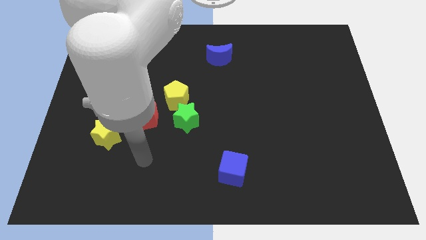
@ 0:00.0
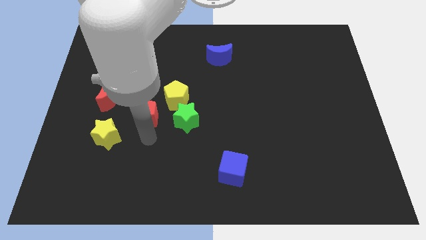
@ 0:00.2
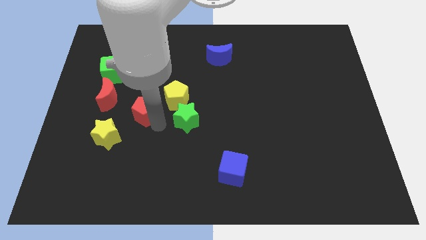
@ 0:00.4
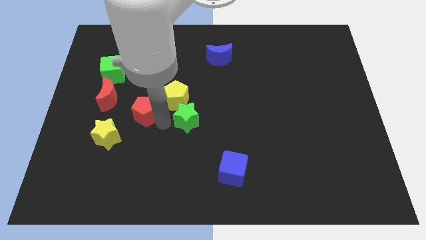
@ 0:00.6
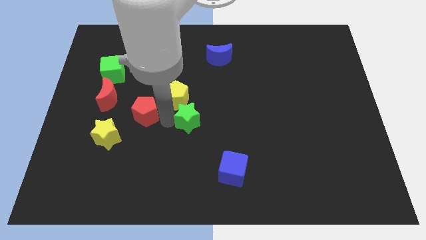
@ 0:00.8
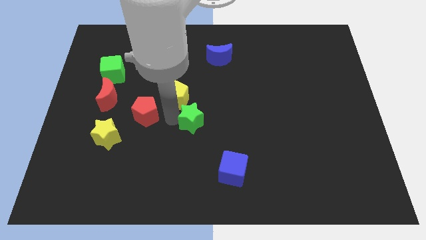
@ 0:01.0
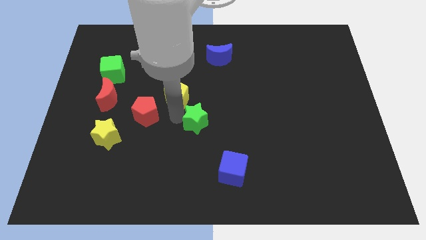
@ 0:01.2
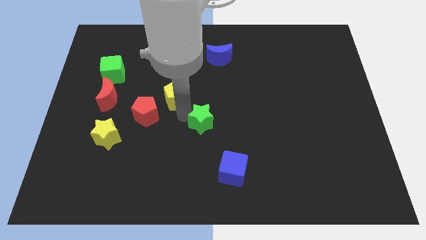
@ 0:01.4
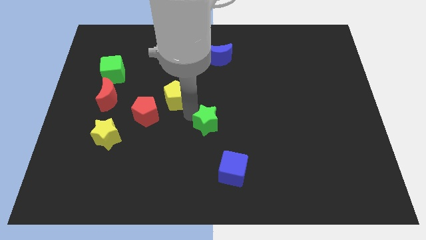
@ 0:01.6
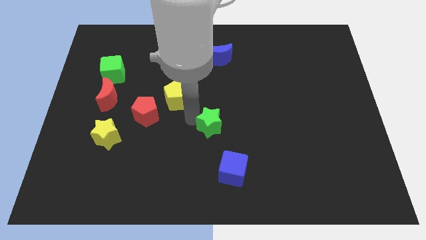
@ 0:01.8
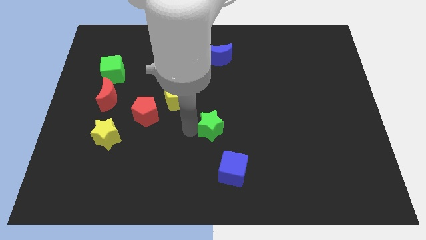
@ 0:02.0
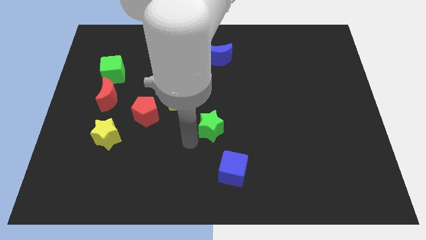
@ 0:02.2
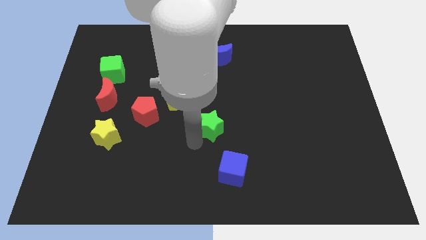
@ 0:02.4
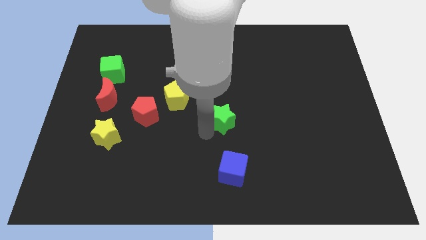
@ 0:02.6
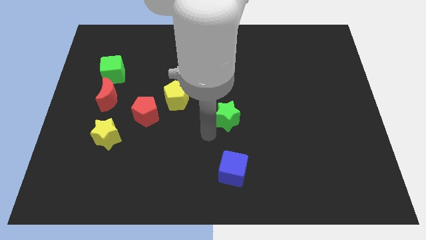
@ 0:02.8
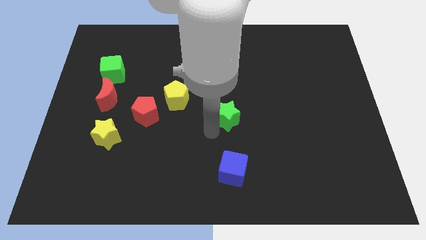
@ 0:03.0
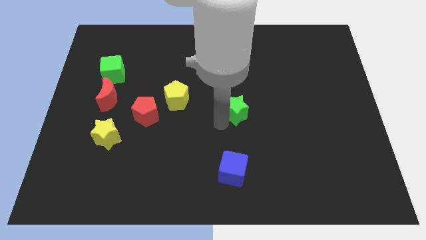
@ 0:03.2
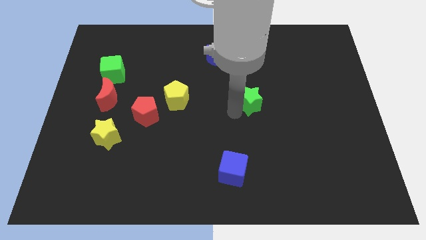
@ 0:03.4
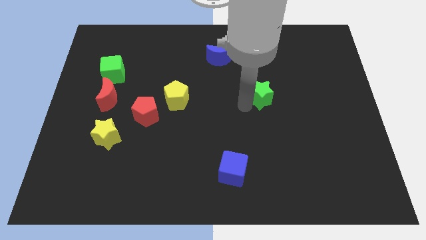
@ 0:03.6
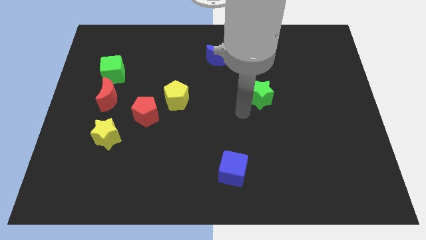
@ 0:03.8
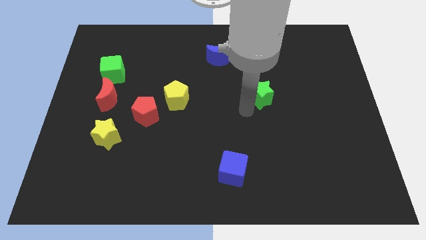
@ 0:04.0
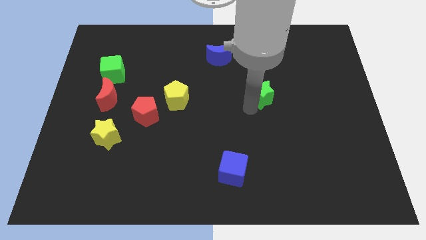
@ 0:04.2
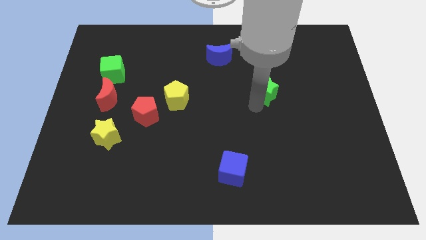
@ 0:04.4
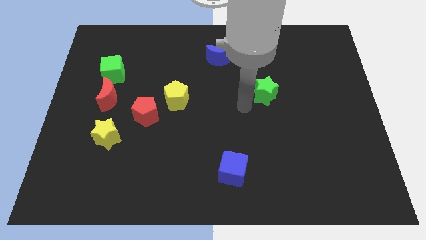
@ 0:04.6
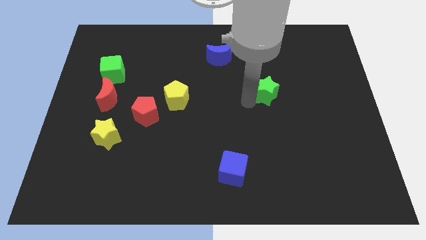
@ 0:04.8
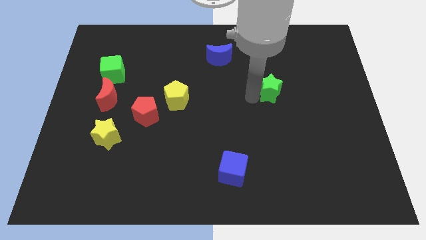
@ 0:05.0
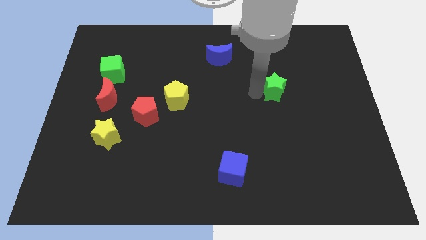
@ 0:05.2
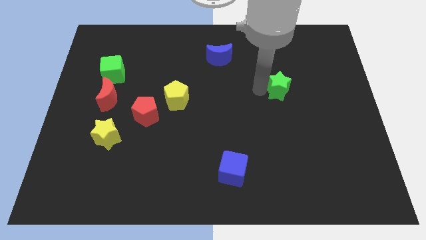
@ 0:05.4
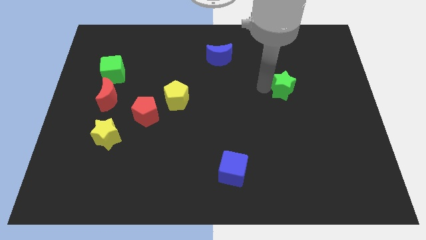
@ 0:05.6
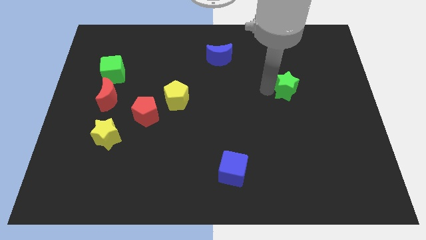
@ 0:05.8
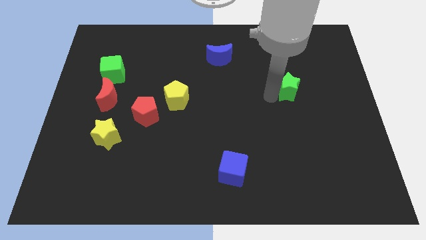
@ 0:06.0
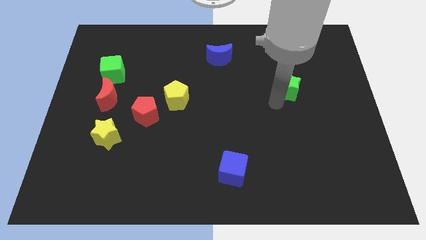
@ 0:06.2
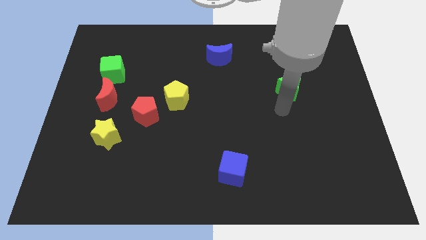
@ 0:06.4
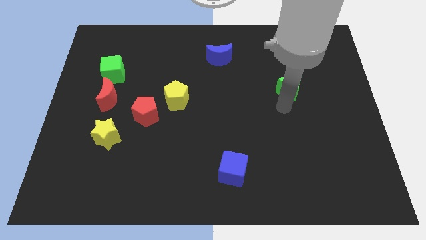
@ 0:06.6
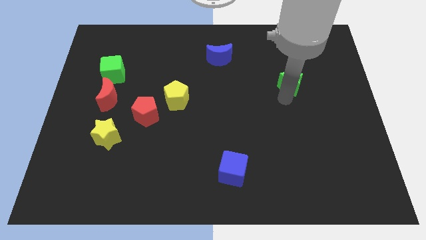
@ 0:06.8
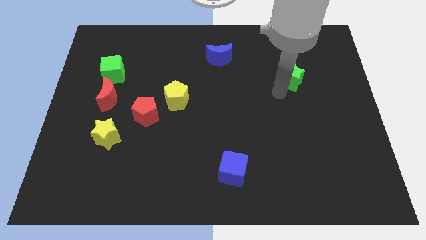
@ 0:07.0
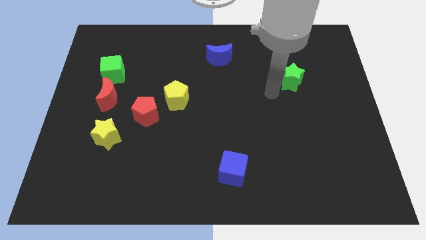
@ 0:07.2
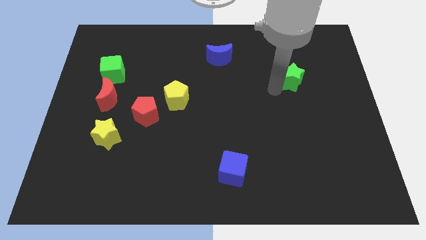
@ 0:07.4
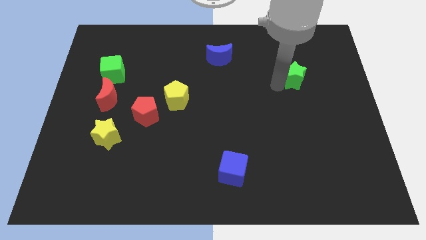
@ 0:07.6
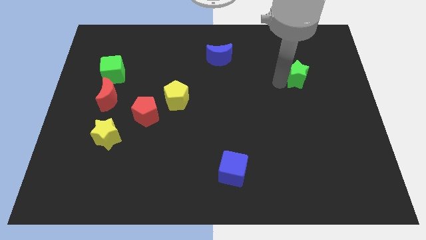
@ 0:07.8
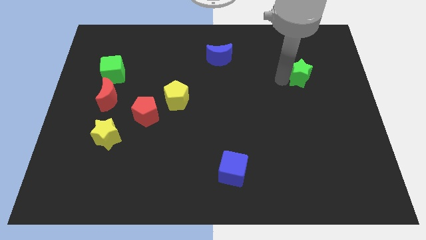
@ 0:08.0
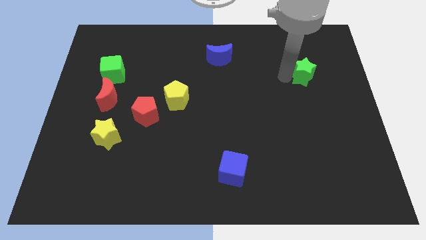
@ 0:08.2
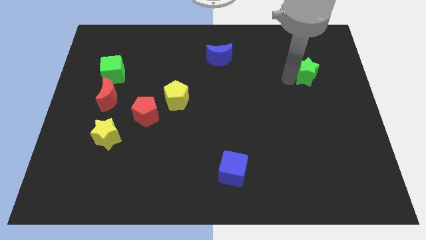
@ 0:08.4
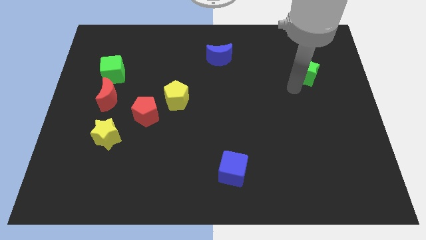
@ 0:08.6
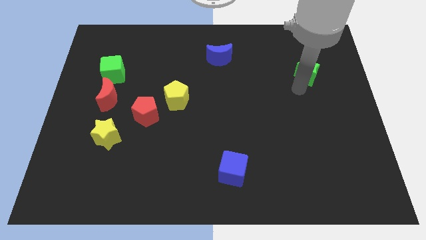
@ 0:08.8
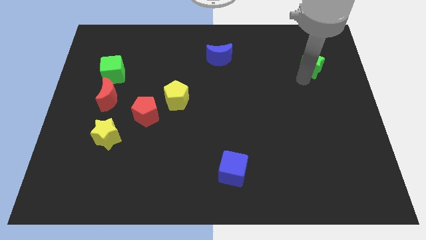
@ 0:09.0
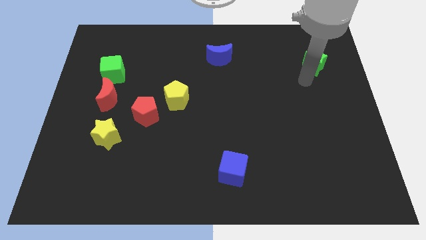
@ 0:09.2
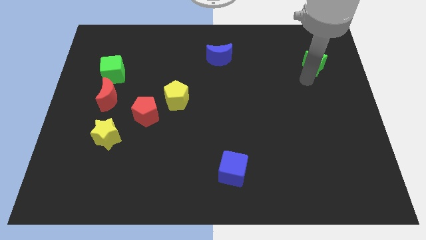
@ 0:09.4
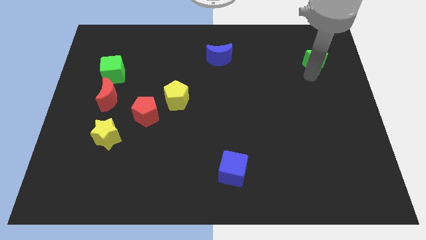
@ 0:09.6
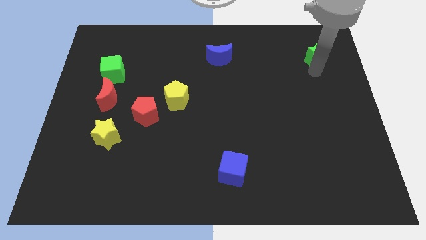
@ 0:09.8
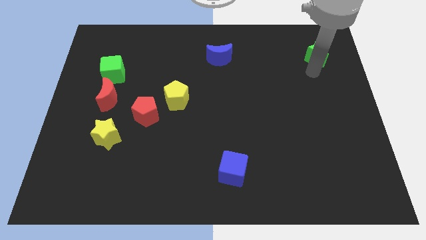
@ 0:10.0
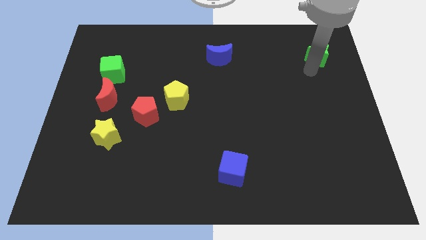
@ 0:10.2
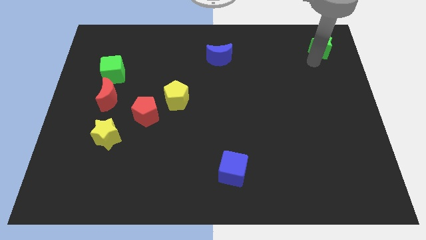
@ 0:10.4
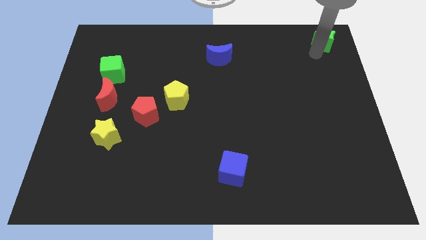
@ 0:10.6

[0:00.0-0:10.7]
put the green star to the top right

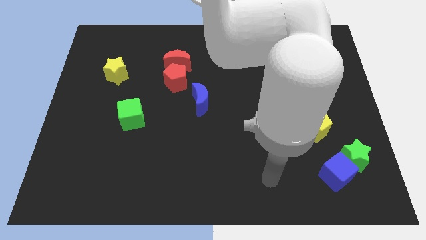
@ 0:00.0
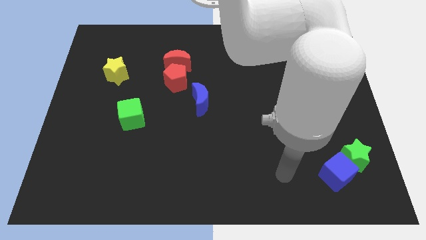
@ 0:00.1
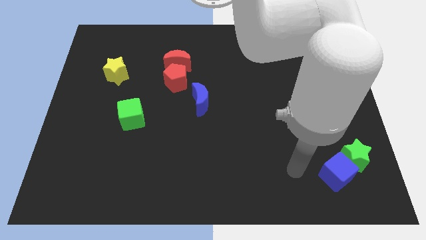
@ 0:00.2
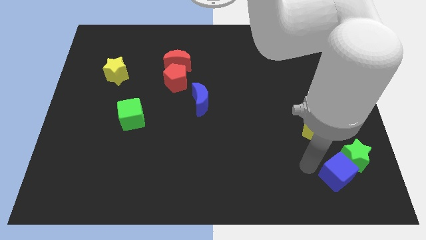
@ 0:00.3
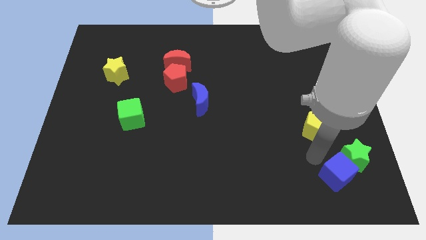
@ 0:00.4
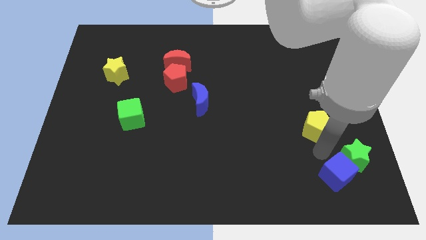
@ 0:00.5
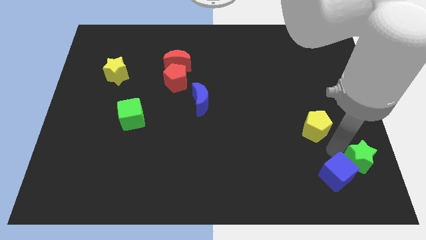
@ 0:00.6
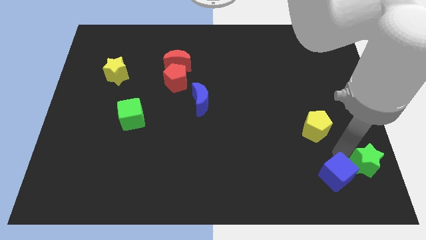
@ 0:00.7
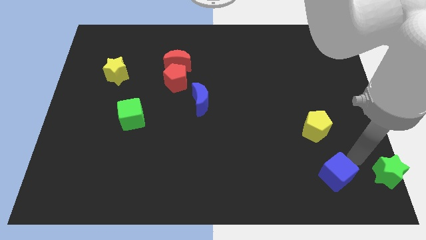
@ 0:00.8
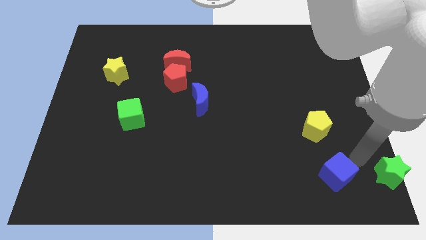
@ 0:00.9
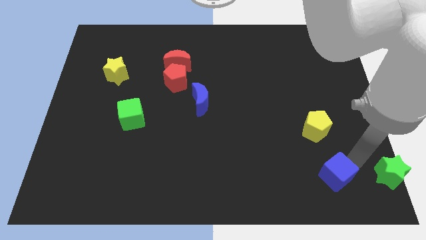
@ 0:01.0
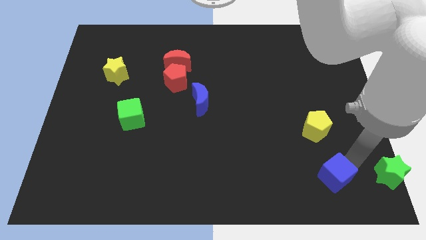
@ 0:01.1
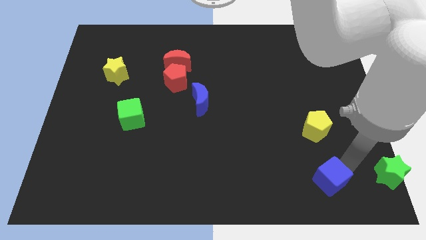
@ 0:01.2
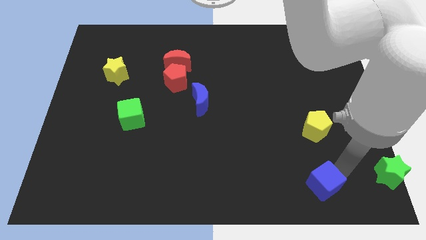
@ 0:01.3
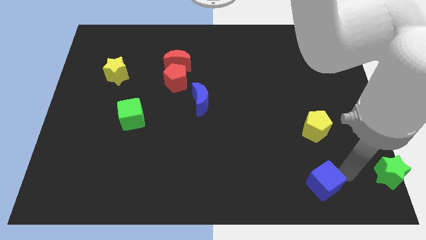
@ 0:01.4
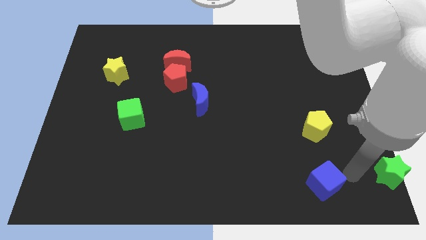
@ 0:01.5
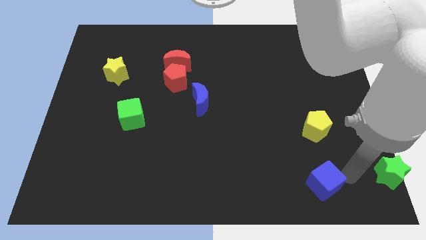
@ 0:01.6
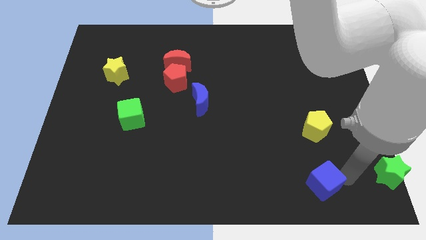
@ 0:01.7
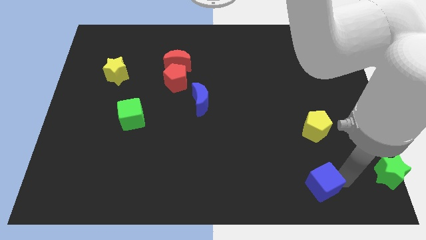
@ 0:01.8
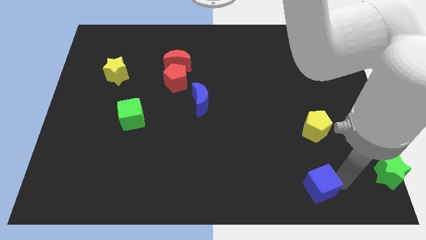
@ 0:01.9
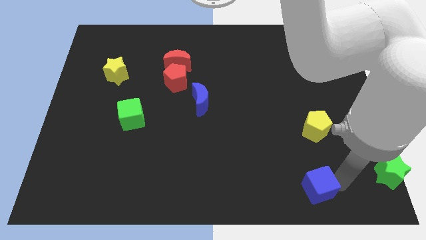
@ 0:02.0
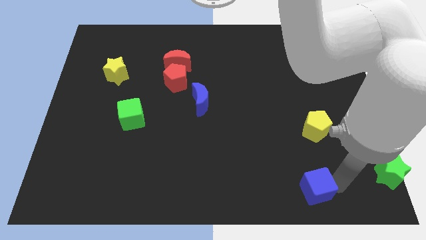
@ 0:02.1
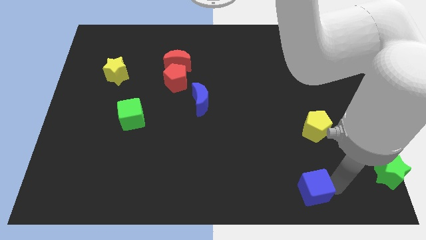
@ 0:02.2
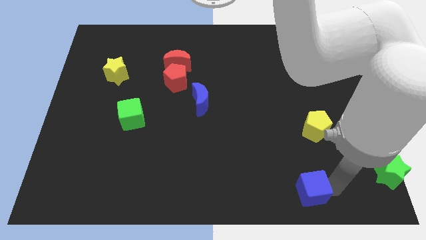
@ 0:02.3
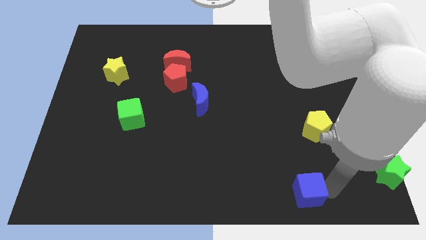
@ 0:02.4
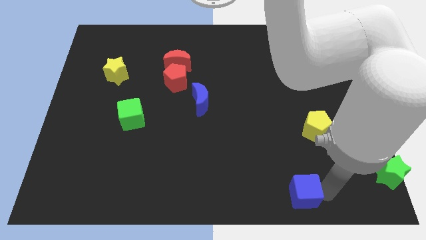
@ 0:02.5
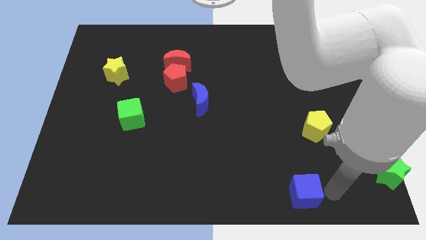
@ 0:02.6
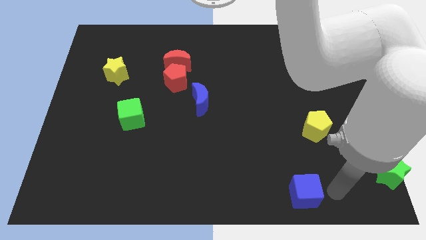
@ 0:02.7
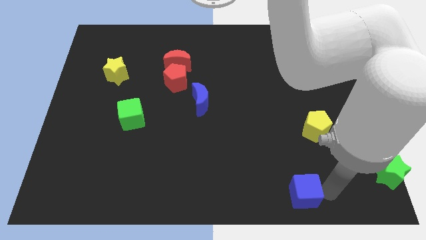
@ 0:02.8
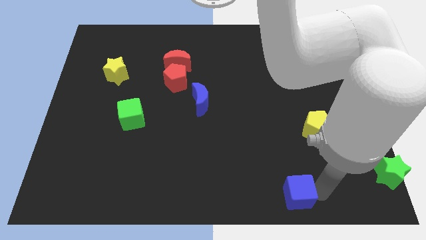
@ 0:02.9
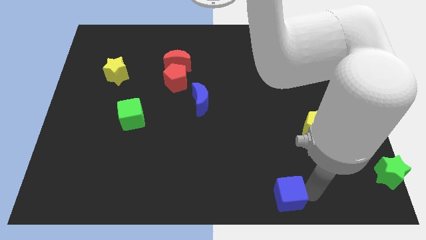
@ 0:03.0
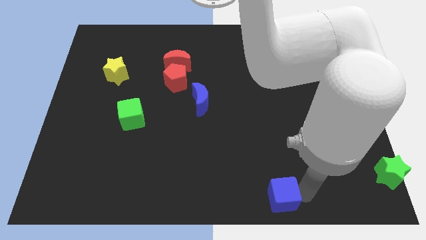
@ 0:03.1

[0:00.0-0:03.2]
put the blue cube to the bottom
